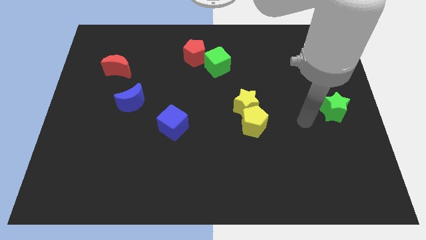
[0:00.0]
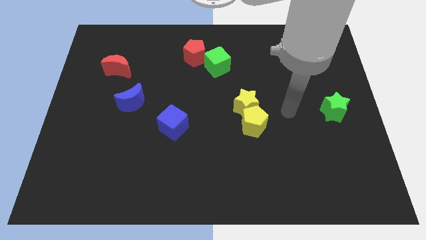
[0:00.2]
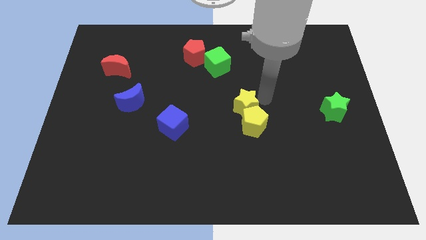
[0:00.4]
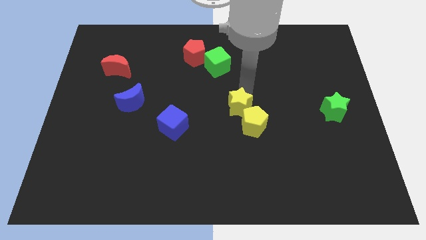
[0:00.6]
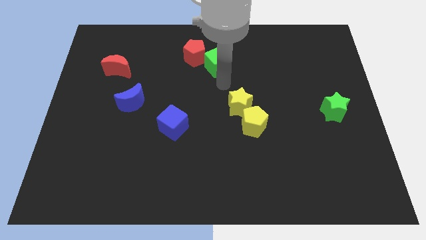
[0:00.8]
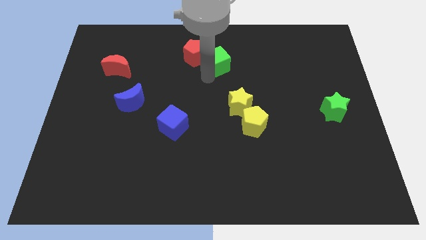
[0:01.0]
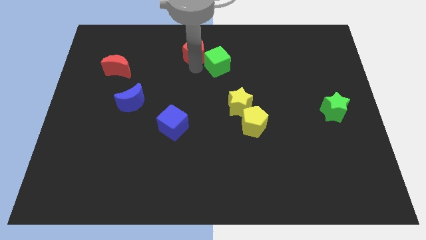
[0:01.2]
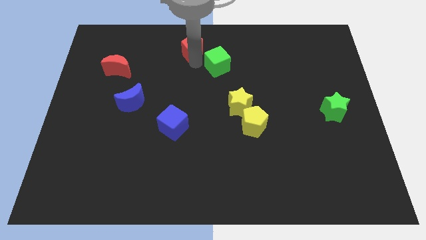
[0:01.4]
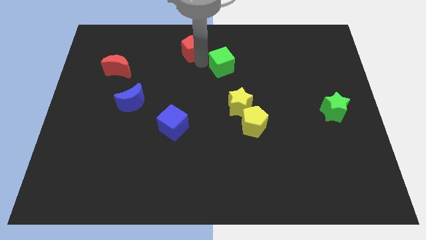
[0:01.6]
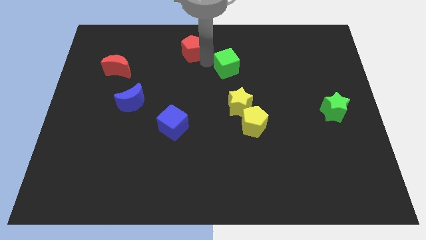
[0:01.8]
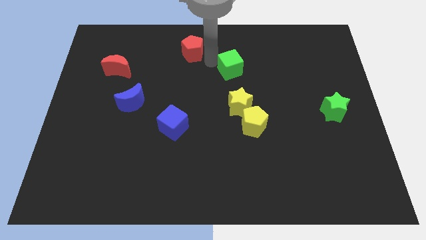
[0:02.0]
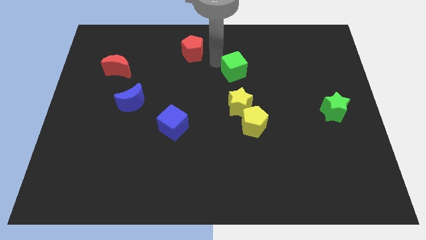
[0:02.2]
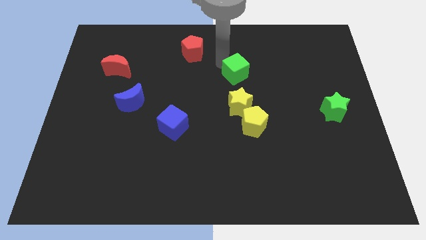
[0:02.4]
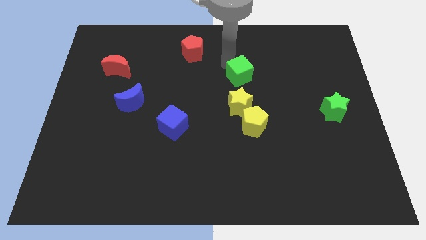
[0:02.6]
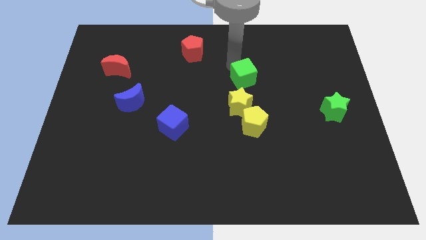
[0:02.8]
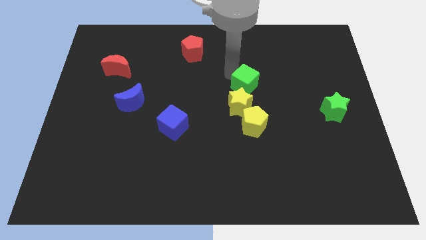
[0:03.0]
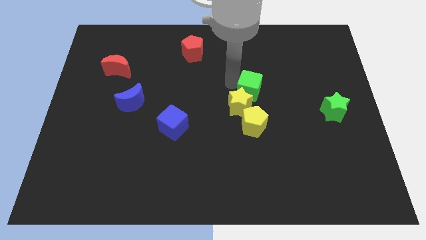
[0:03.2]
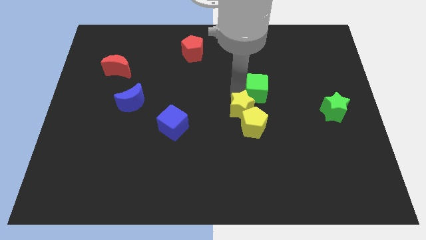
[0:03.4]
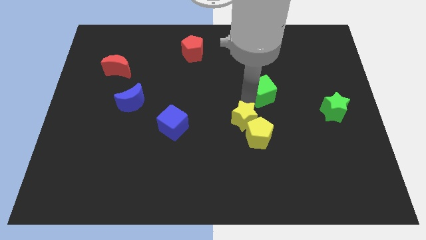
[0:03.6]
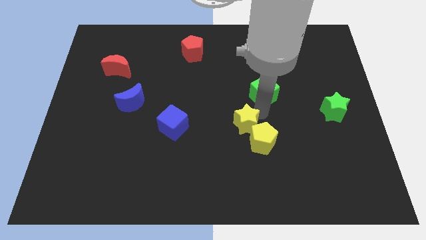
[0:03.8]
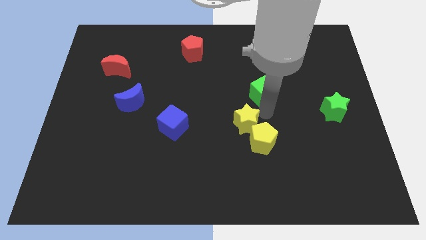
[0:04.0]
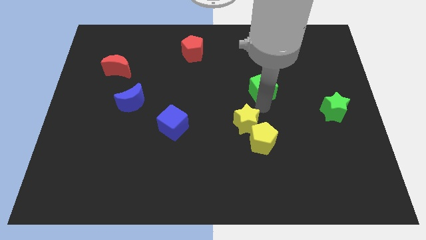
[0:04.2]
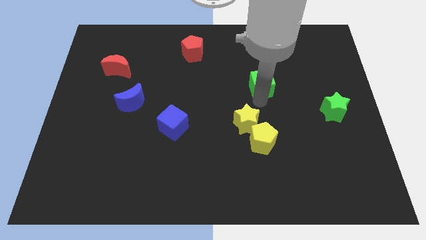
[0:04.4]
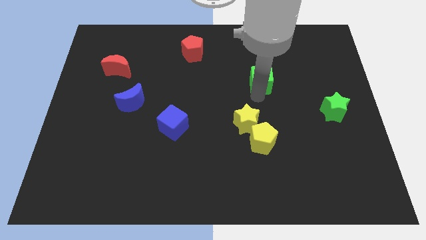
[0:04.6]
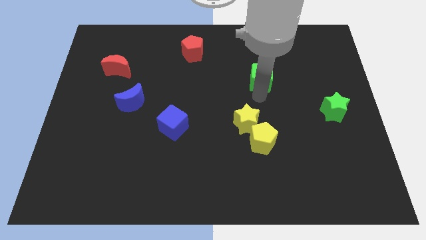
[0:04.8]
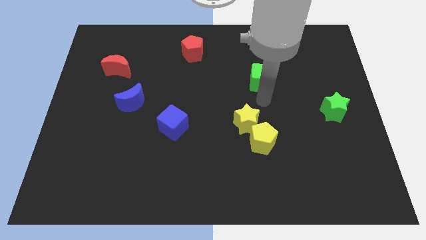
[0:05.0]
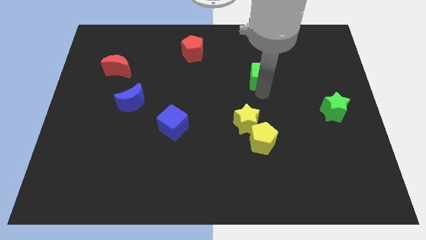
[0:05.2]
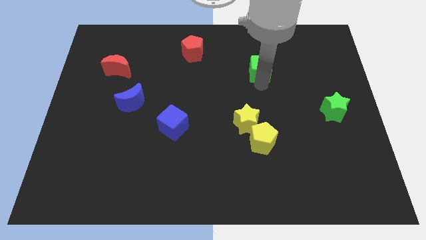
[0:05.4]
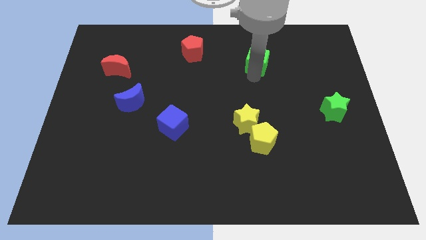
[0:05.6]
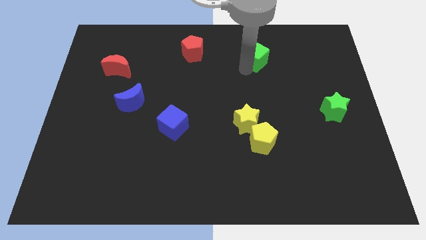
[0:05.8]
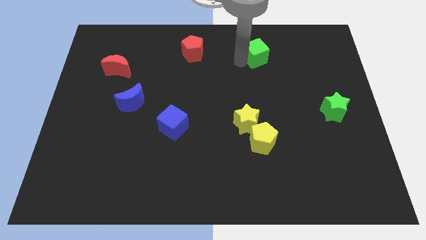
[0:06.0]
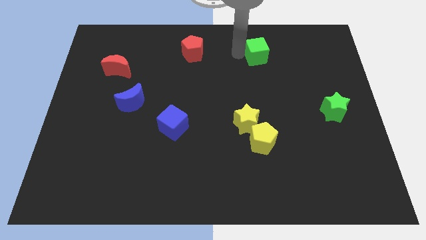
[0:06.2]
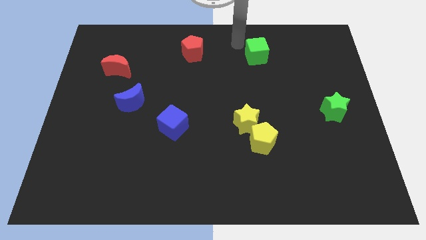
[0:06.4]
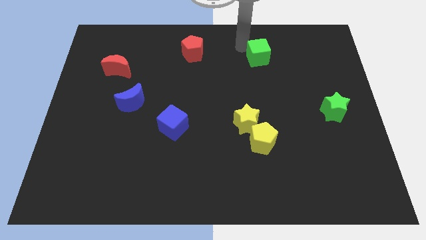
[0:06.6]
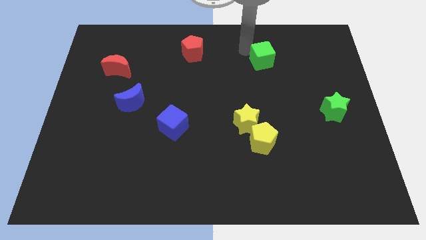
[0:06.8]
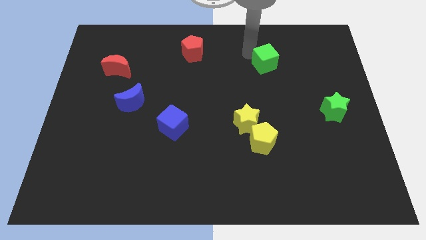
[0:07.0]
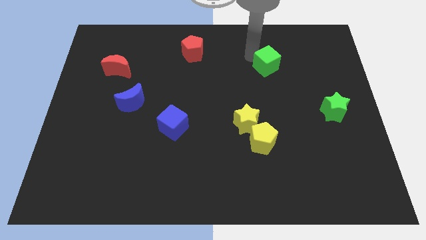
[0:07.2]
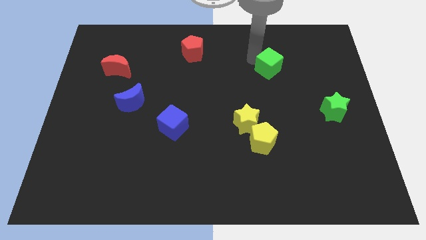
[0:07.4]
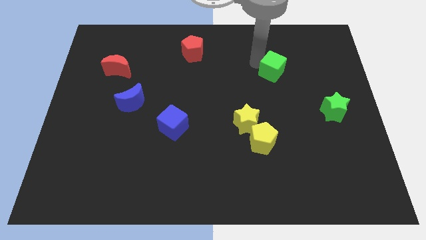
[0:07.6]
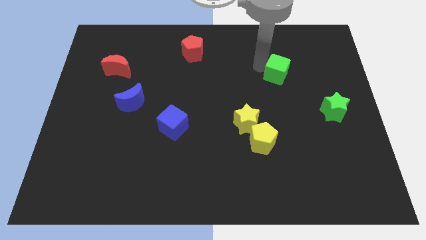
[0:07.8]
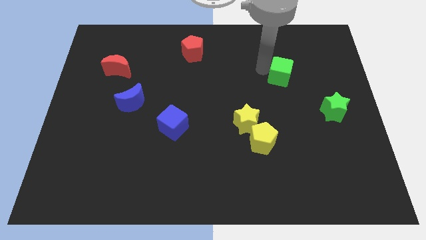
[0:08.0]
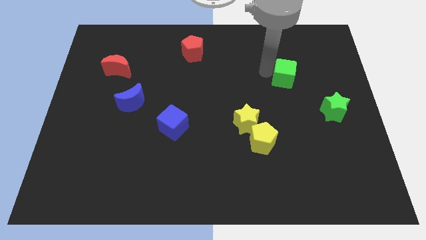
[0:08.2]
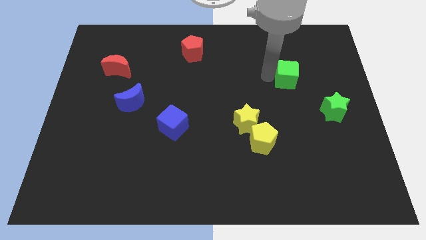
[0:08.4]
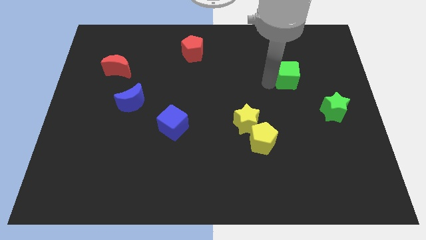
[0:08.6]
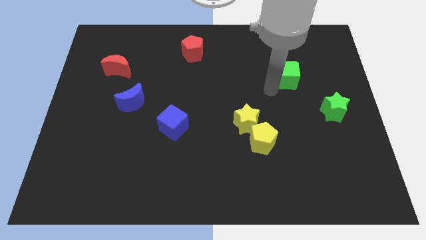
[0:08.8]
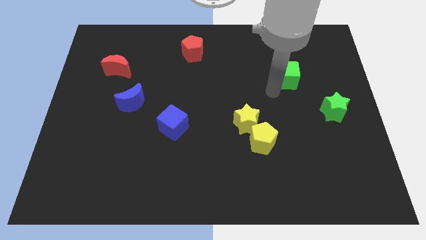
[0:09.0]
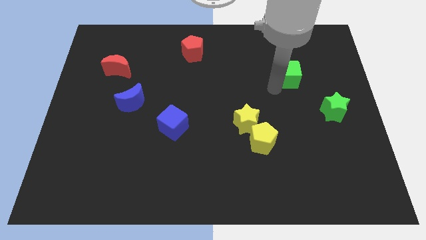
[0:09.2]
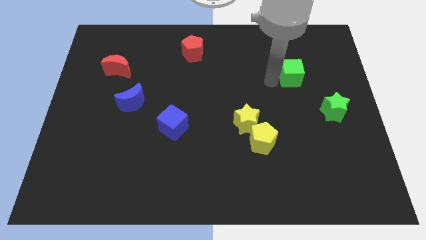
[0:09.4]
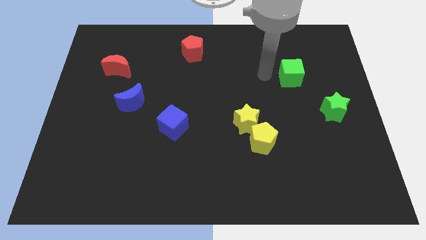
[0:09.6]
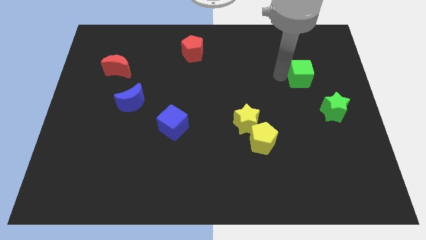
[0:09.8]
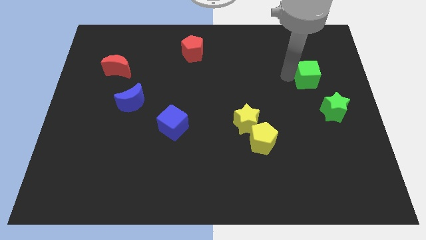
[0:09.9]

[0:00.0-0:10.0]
slide the green cube to the top of the green star

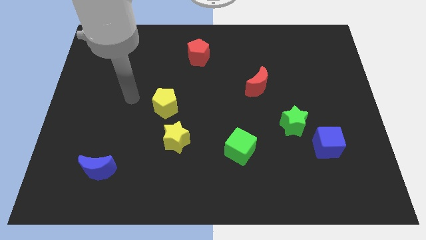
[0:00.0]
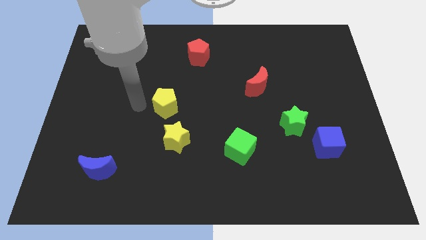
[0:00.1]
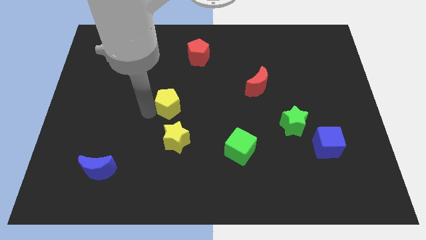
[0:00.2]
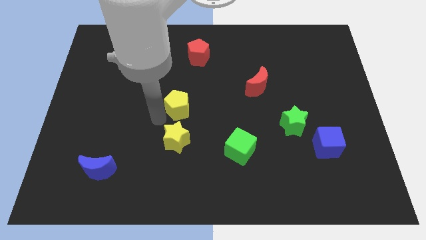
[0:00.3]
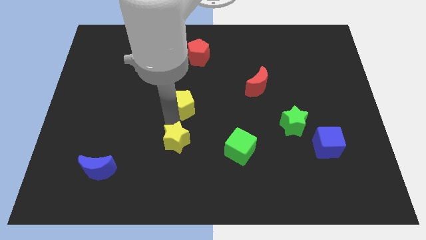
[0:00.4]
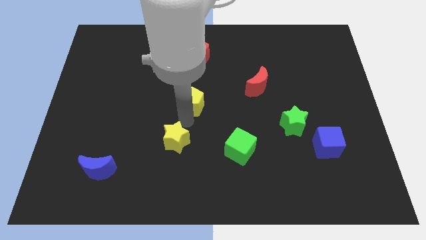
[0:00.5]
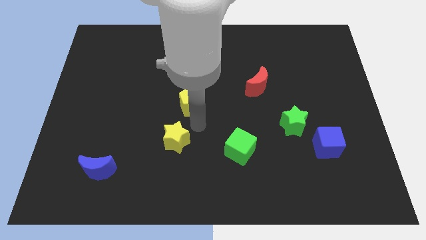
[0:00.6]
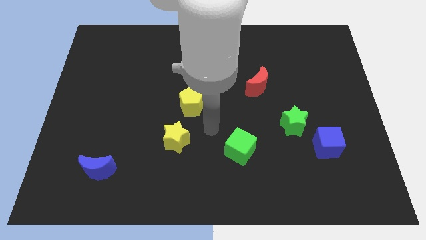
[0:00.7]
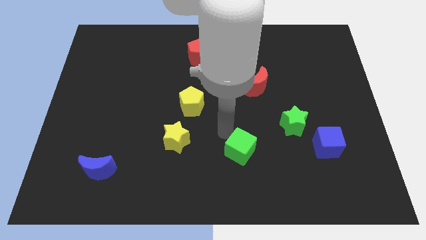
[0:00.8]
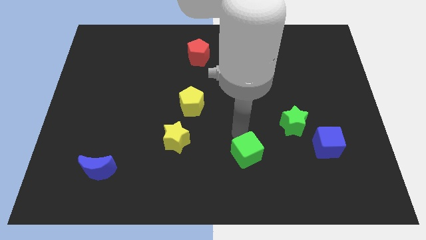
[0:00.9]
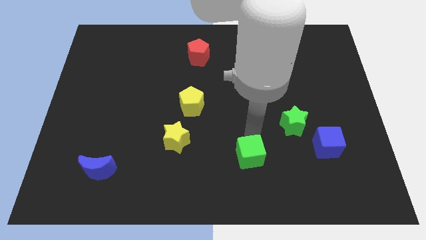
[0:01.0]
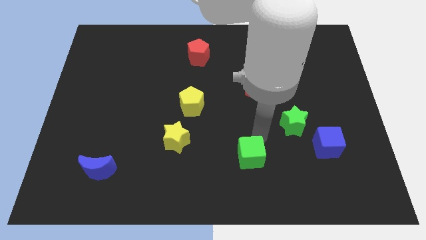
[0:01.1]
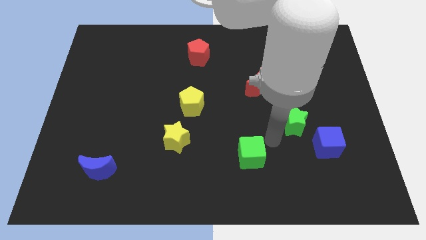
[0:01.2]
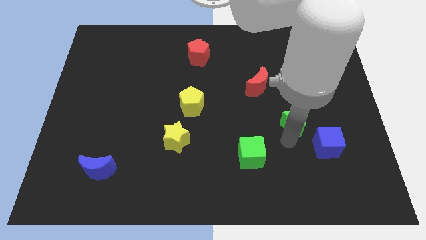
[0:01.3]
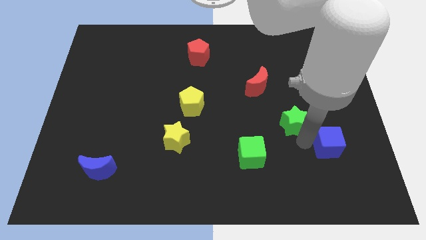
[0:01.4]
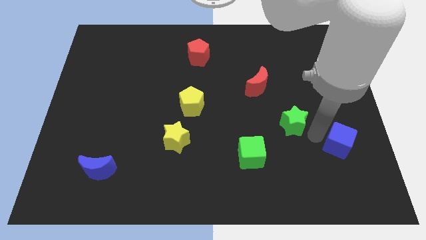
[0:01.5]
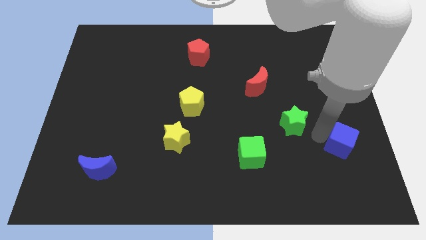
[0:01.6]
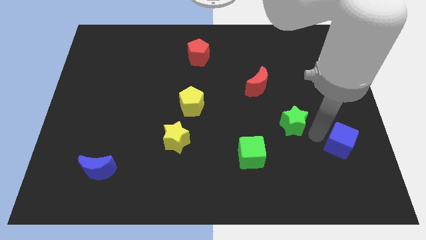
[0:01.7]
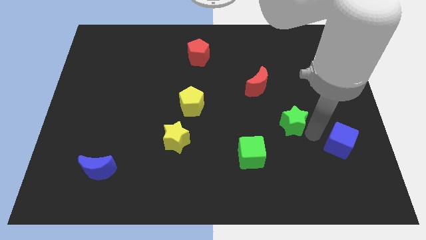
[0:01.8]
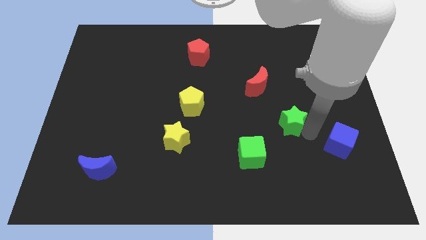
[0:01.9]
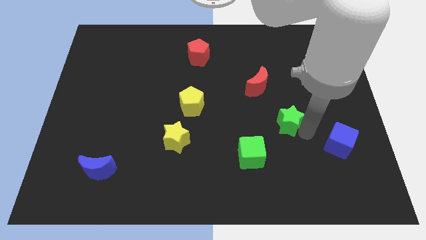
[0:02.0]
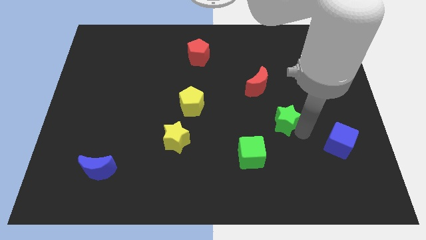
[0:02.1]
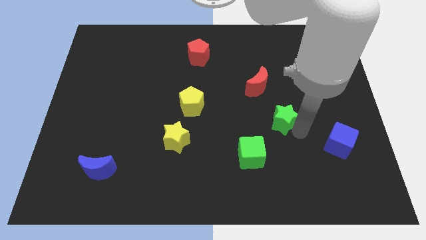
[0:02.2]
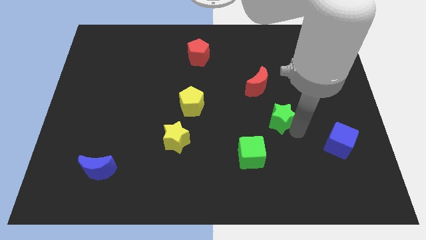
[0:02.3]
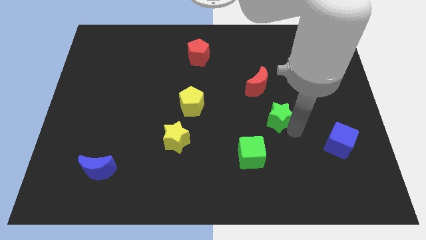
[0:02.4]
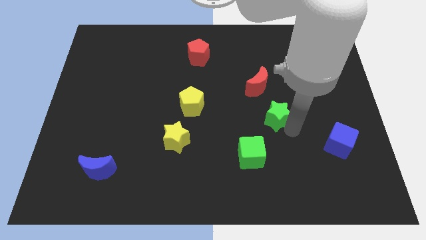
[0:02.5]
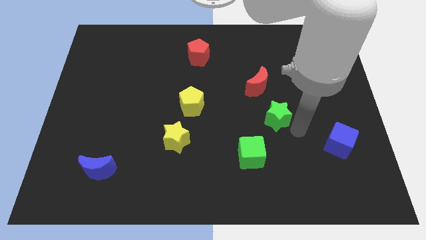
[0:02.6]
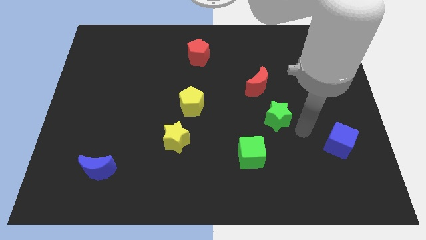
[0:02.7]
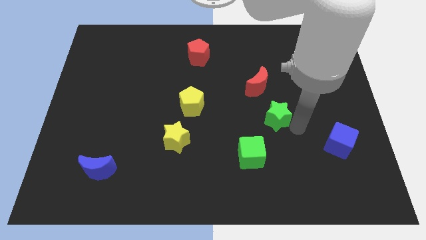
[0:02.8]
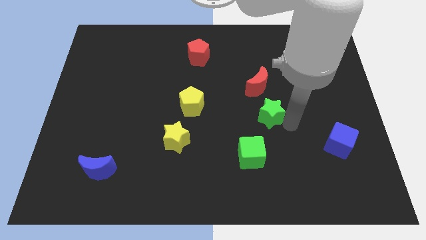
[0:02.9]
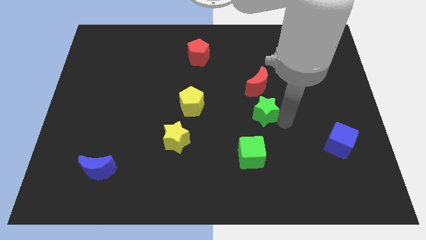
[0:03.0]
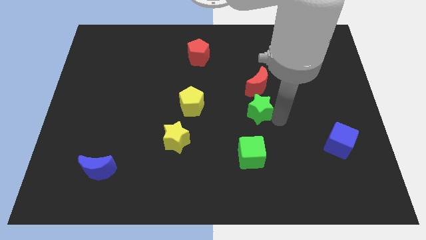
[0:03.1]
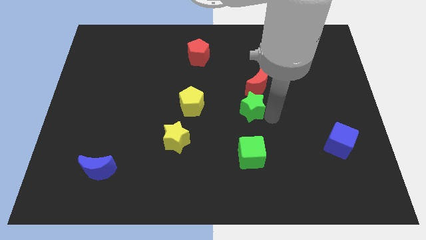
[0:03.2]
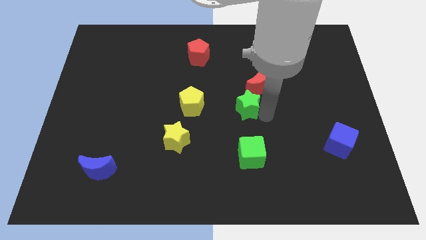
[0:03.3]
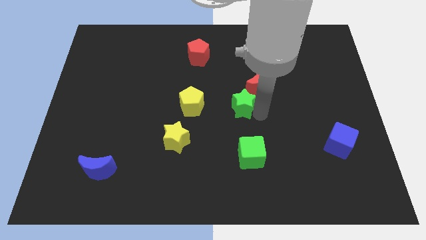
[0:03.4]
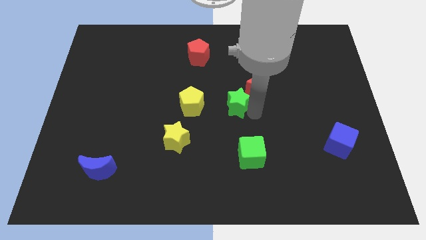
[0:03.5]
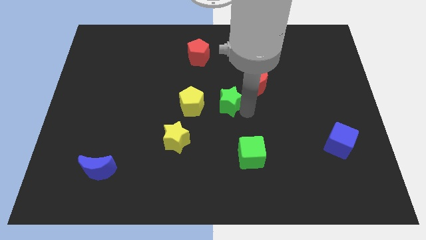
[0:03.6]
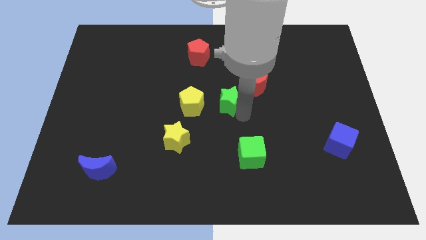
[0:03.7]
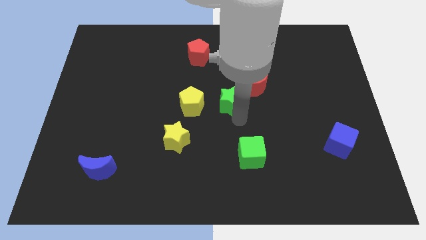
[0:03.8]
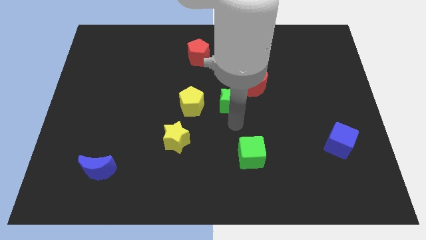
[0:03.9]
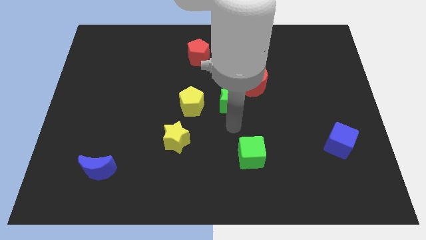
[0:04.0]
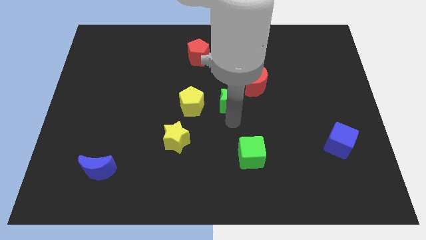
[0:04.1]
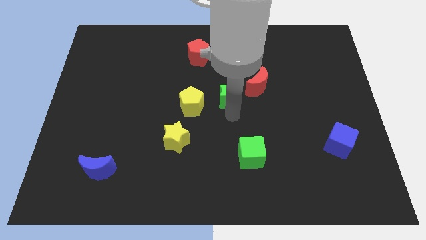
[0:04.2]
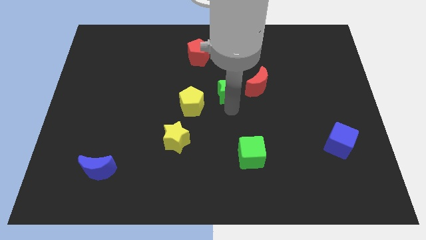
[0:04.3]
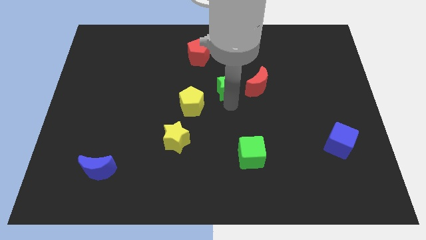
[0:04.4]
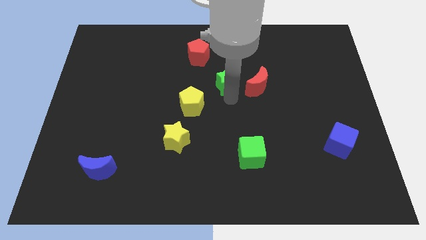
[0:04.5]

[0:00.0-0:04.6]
slide the green star to the bottom right of the red pentagon
